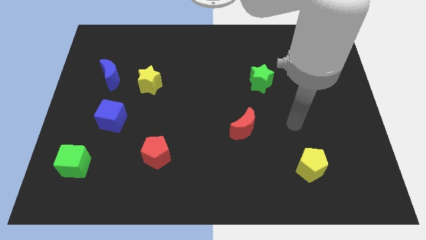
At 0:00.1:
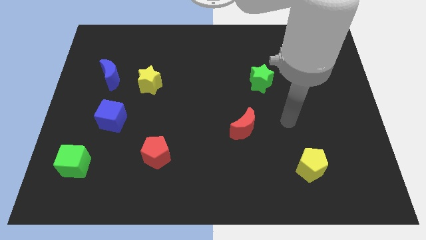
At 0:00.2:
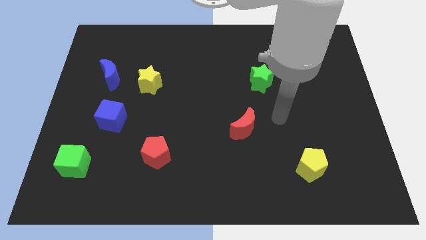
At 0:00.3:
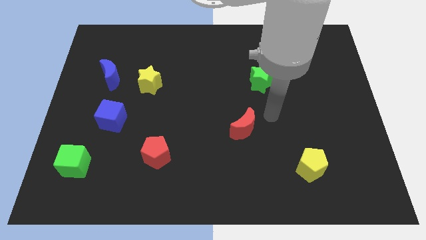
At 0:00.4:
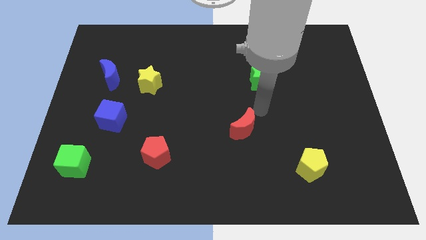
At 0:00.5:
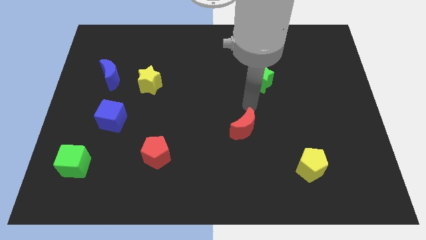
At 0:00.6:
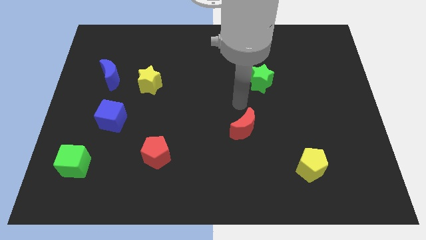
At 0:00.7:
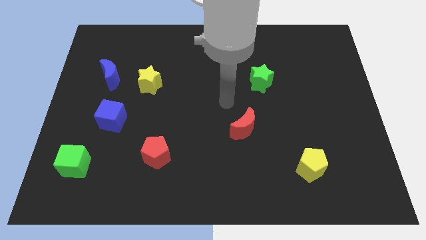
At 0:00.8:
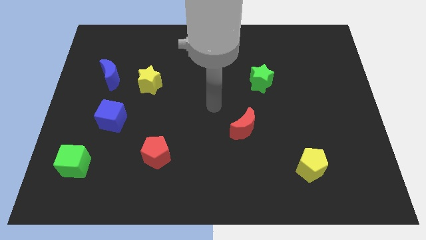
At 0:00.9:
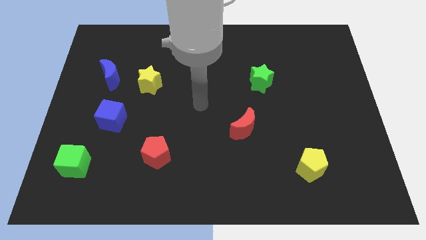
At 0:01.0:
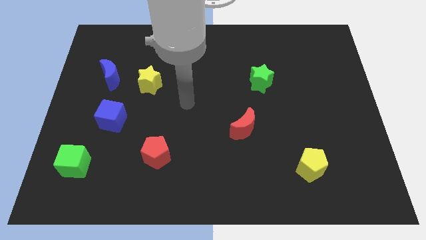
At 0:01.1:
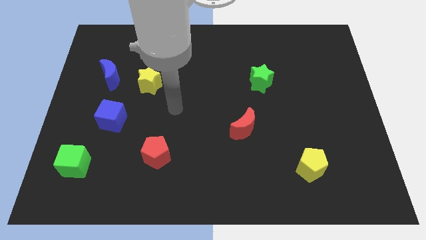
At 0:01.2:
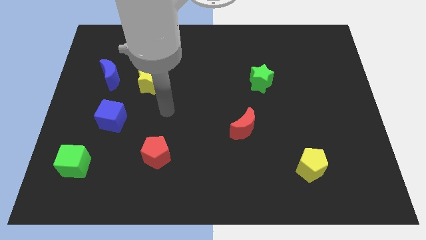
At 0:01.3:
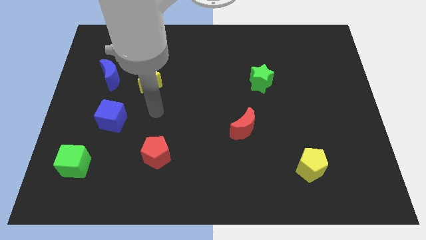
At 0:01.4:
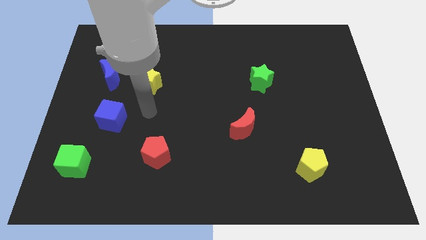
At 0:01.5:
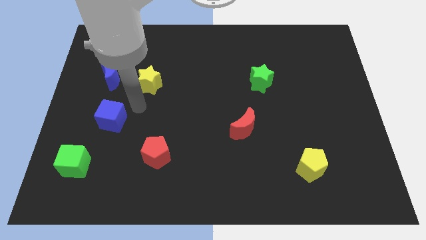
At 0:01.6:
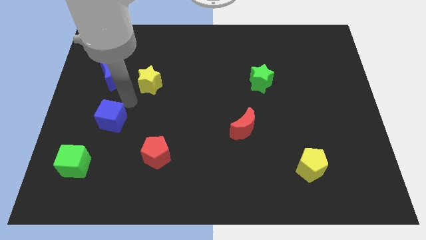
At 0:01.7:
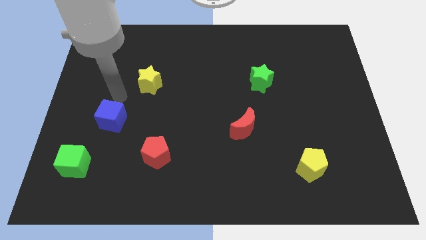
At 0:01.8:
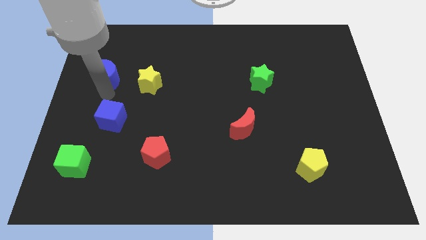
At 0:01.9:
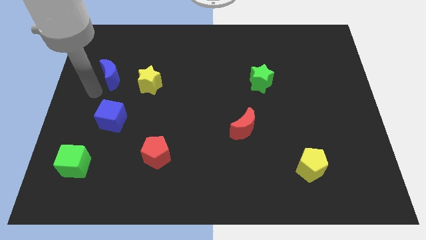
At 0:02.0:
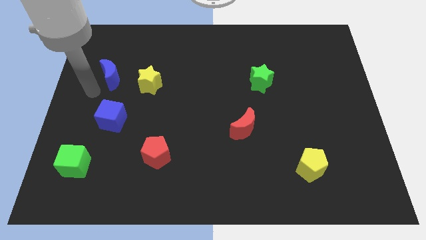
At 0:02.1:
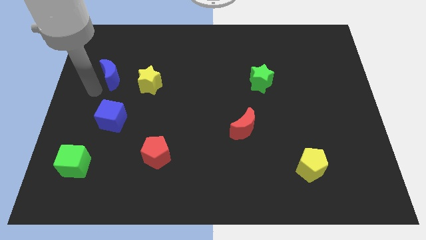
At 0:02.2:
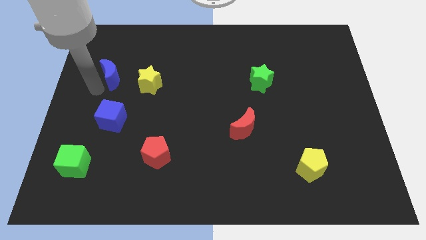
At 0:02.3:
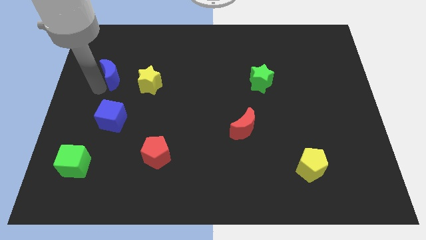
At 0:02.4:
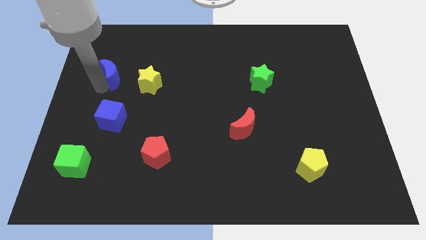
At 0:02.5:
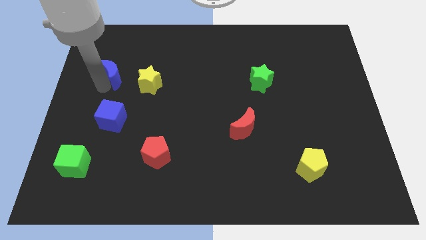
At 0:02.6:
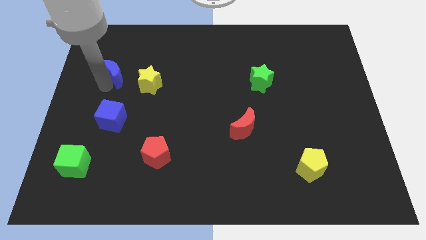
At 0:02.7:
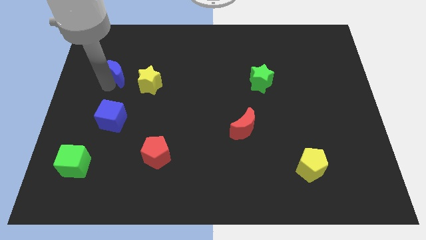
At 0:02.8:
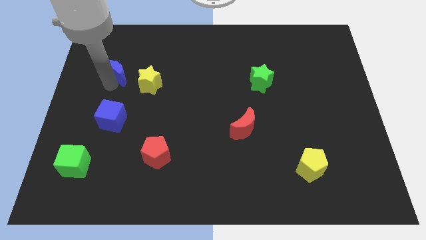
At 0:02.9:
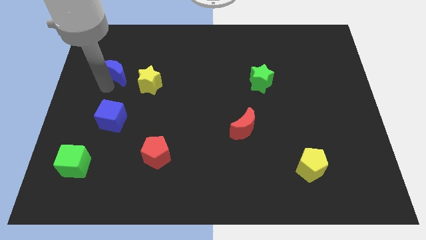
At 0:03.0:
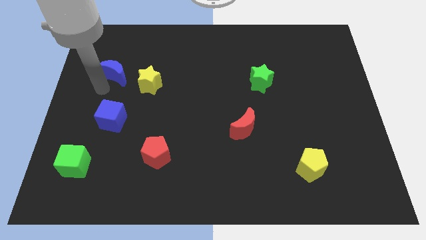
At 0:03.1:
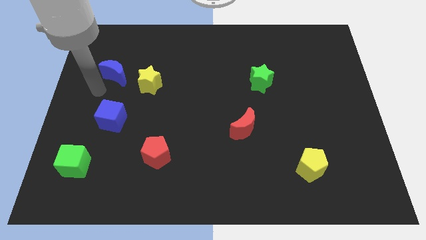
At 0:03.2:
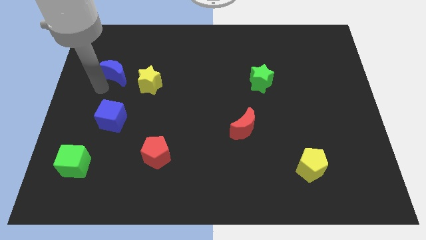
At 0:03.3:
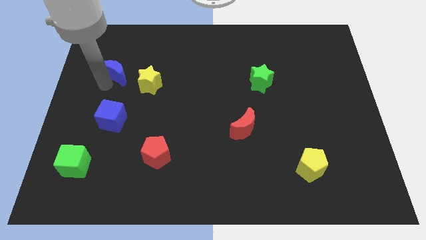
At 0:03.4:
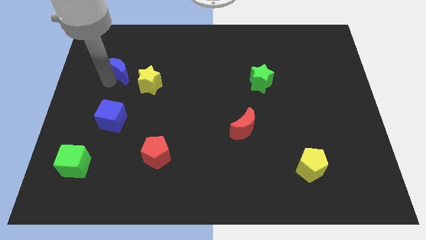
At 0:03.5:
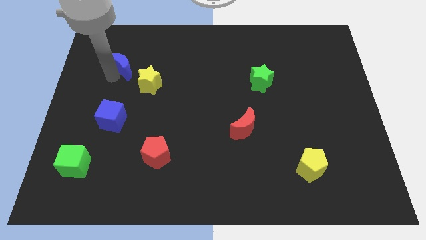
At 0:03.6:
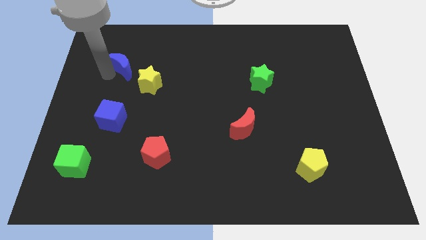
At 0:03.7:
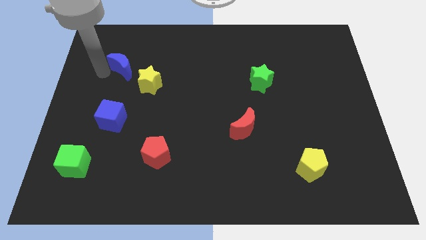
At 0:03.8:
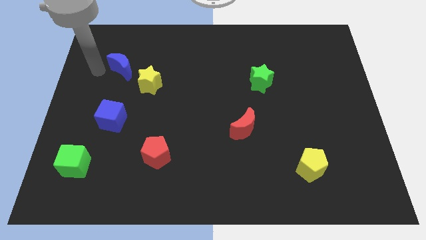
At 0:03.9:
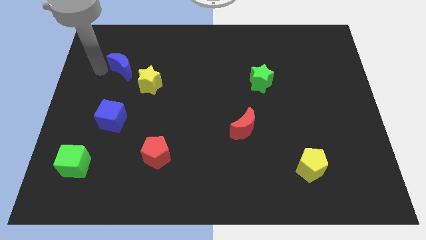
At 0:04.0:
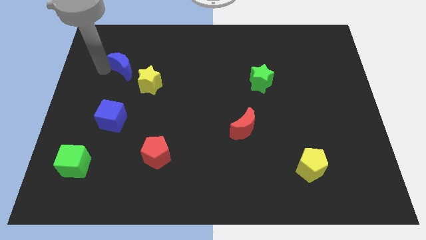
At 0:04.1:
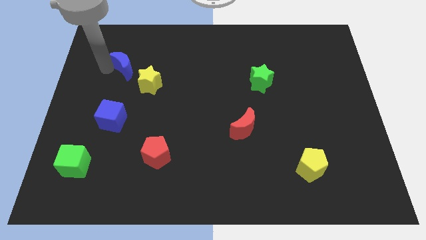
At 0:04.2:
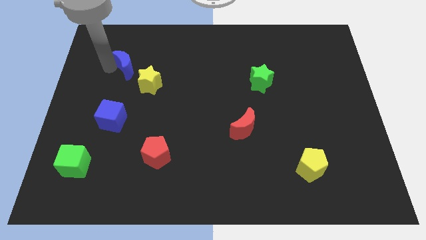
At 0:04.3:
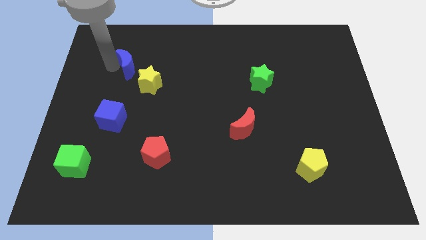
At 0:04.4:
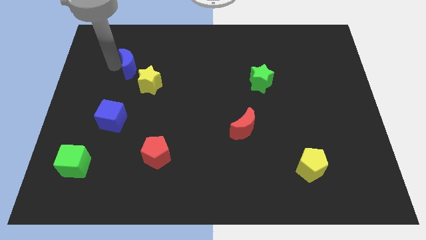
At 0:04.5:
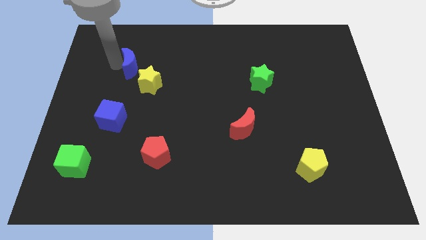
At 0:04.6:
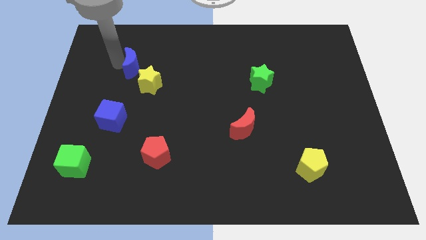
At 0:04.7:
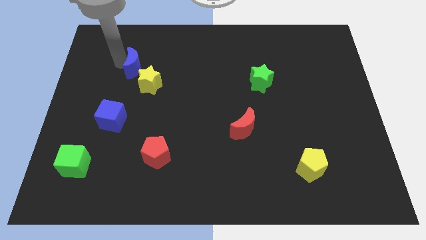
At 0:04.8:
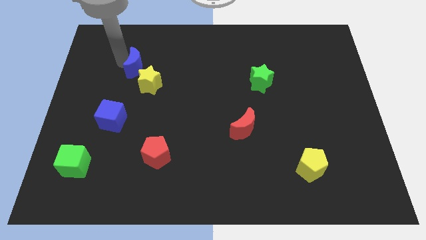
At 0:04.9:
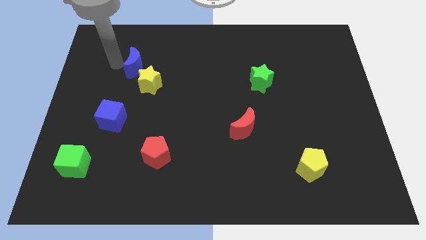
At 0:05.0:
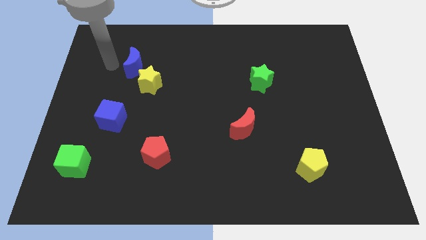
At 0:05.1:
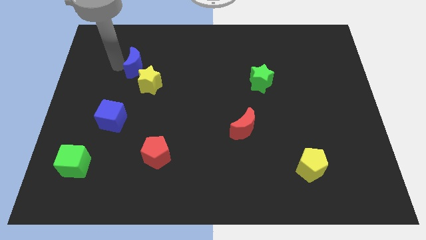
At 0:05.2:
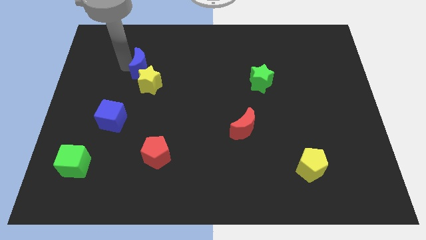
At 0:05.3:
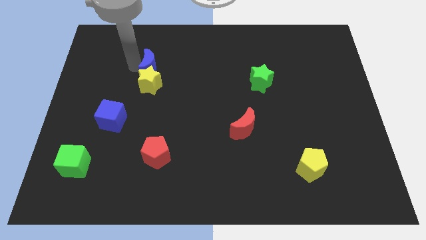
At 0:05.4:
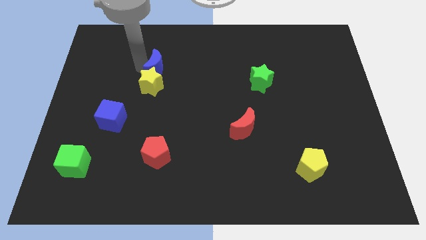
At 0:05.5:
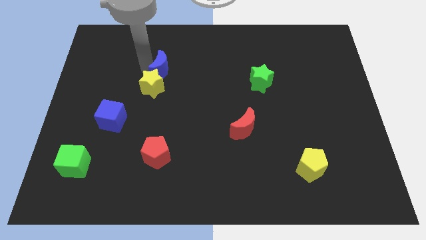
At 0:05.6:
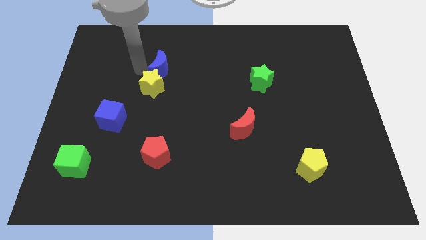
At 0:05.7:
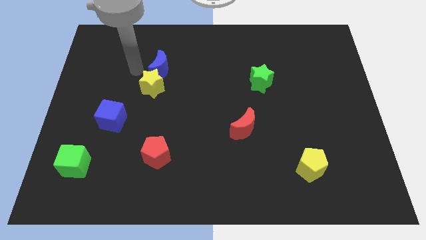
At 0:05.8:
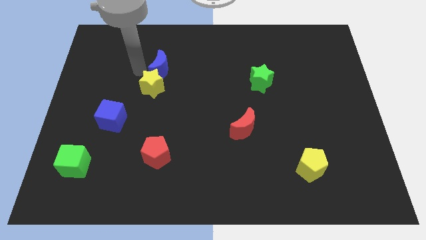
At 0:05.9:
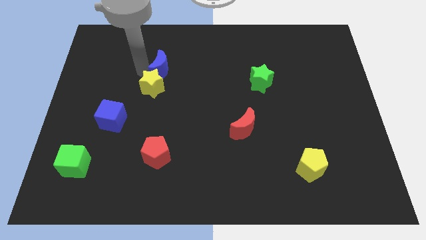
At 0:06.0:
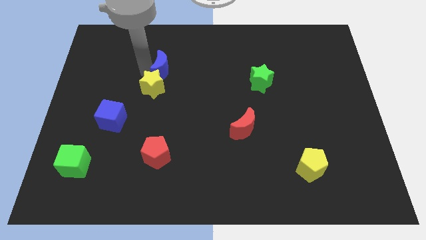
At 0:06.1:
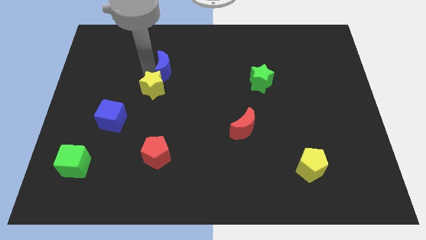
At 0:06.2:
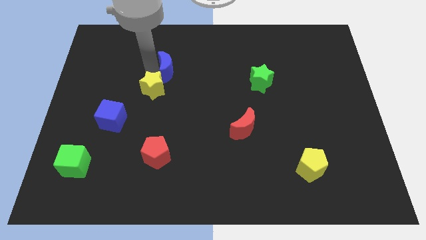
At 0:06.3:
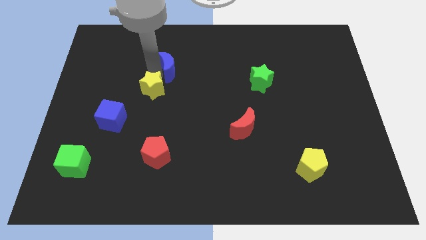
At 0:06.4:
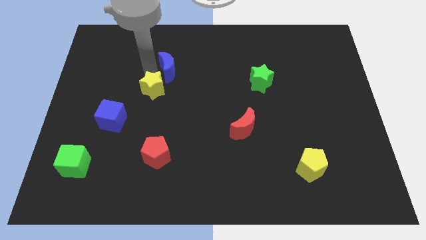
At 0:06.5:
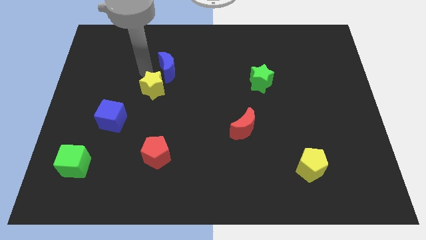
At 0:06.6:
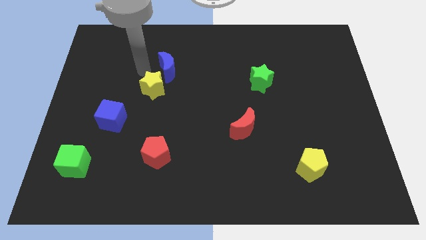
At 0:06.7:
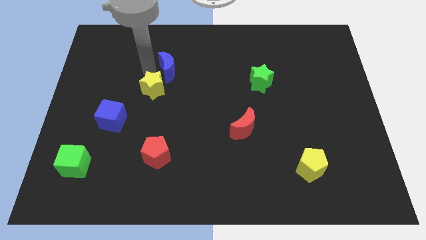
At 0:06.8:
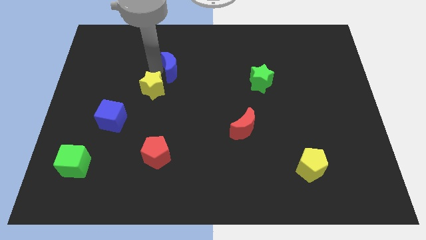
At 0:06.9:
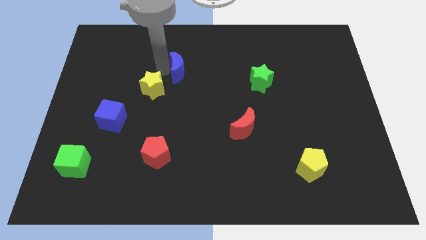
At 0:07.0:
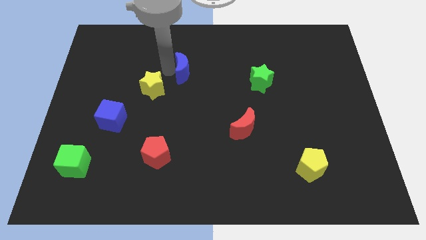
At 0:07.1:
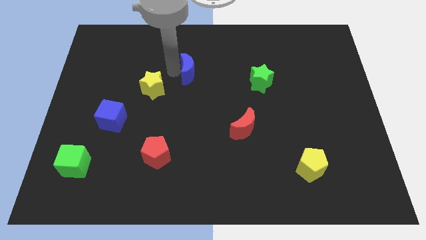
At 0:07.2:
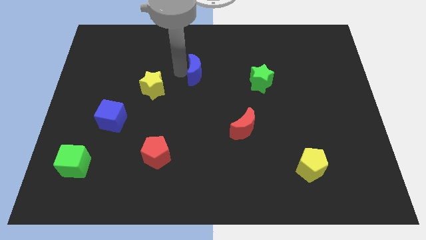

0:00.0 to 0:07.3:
move the blue moon right

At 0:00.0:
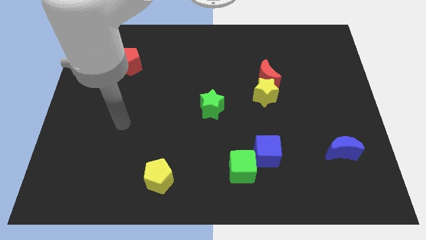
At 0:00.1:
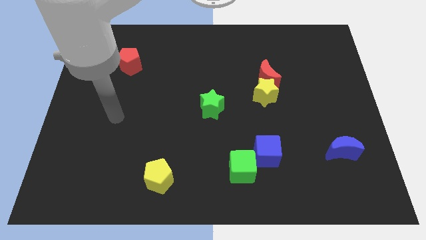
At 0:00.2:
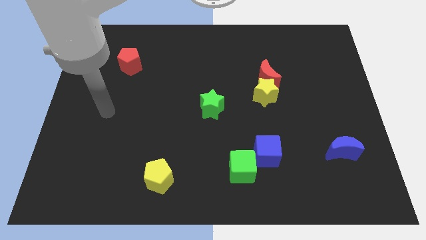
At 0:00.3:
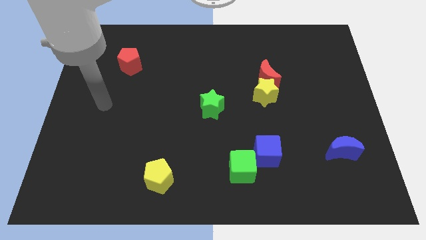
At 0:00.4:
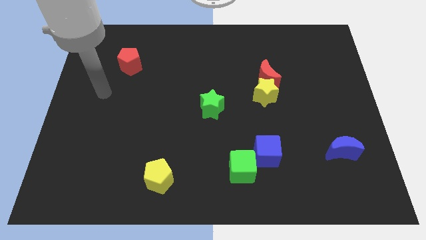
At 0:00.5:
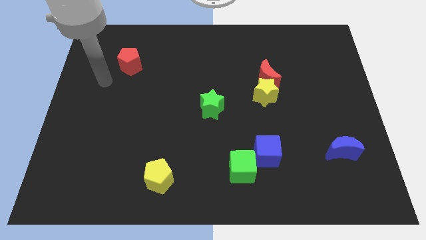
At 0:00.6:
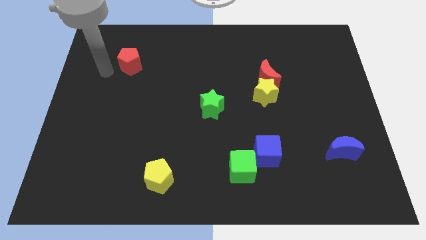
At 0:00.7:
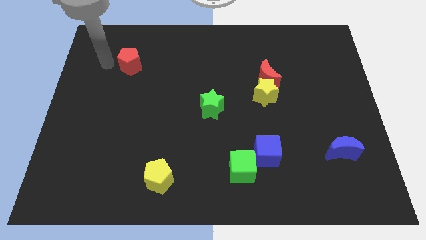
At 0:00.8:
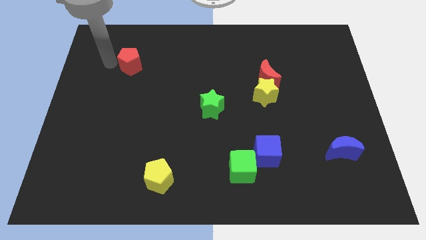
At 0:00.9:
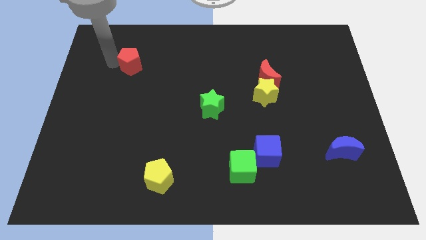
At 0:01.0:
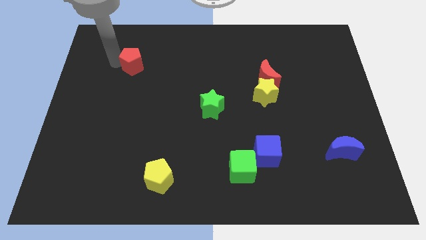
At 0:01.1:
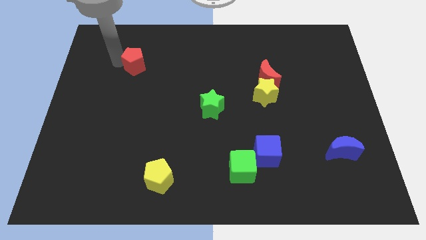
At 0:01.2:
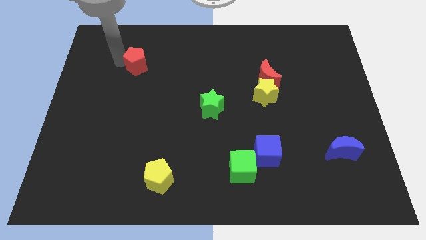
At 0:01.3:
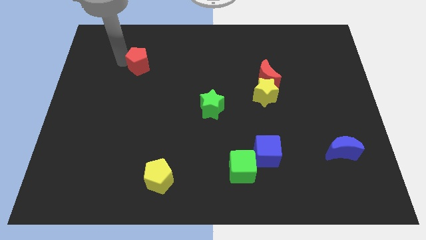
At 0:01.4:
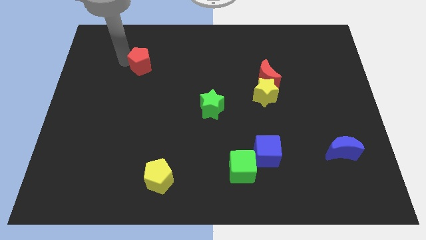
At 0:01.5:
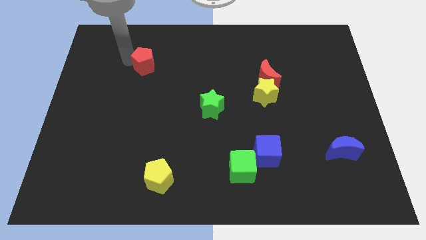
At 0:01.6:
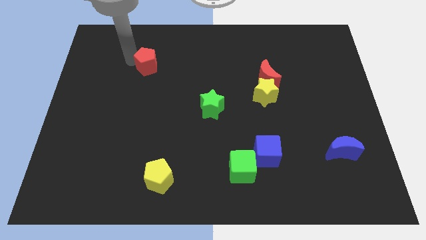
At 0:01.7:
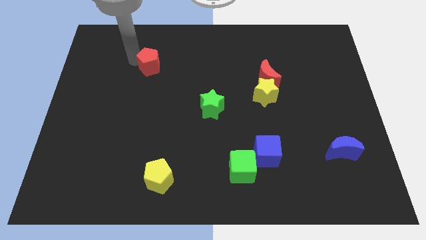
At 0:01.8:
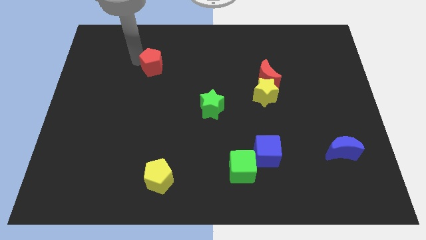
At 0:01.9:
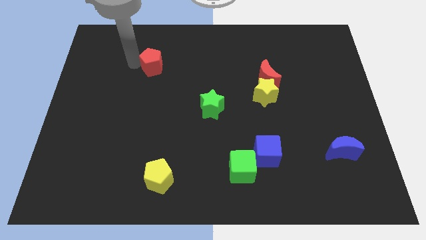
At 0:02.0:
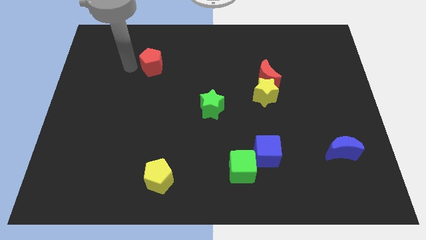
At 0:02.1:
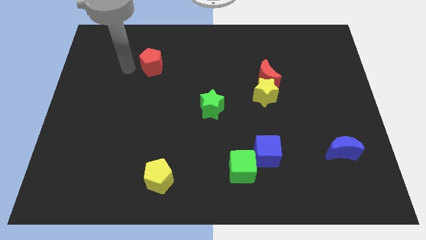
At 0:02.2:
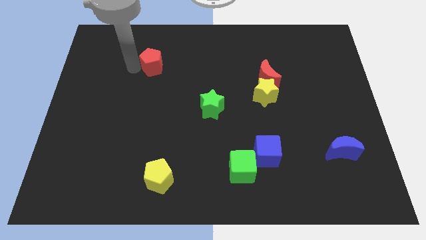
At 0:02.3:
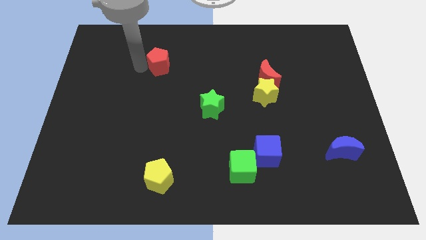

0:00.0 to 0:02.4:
push the red pentagon right slightly
